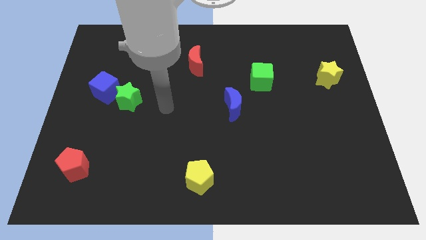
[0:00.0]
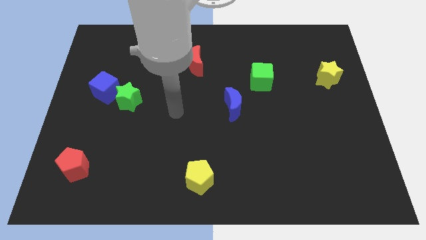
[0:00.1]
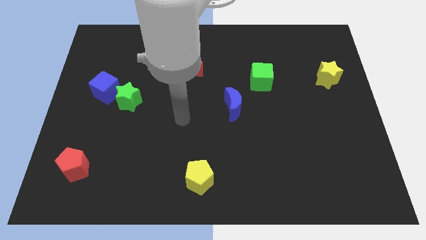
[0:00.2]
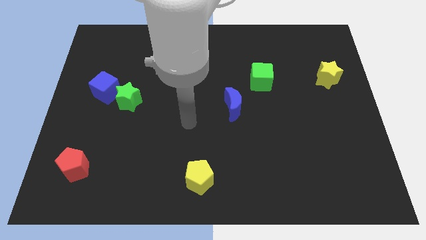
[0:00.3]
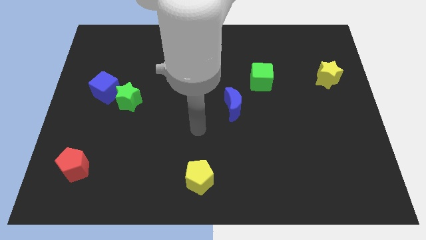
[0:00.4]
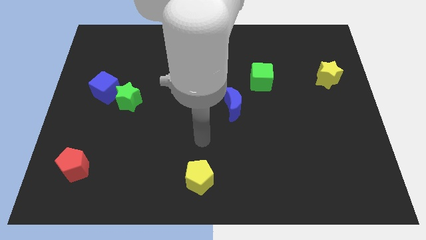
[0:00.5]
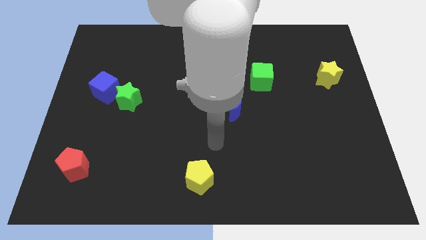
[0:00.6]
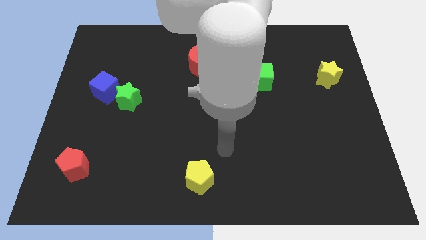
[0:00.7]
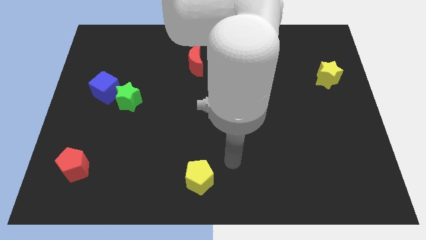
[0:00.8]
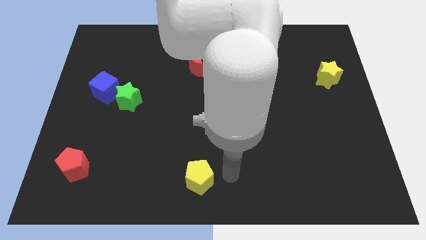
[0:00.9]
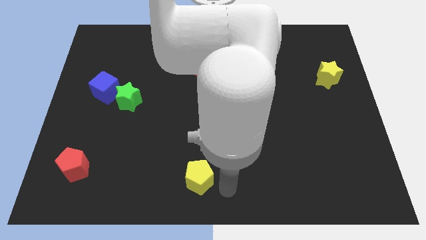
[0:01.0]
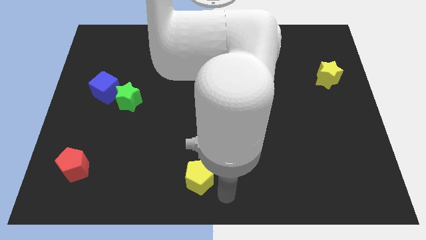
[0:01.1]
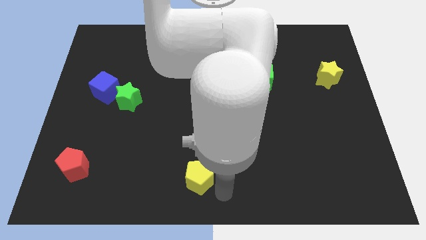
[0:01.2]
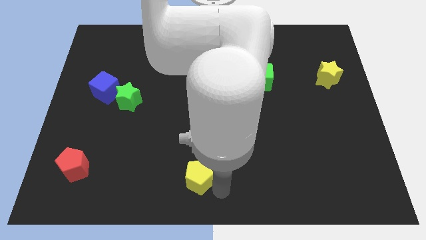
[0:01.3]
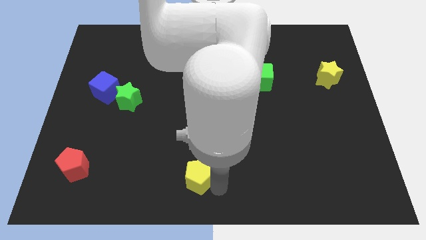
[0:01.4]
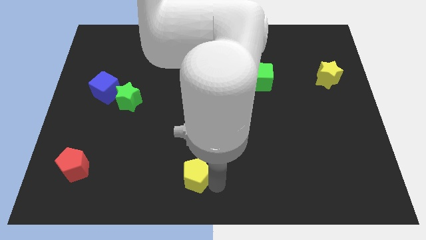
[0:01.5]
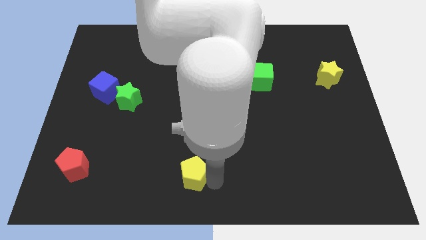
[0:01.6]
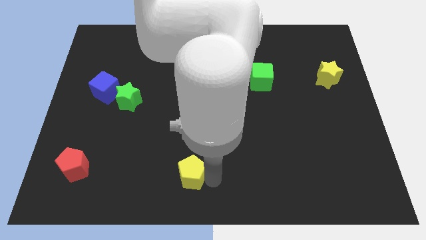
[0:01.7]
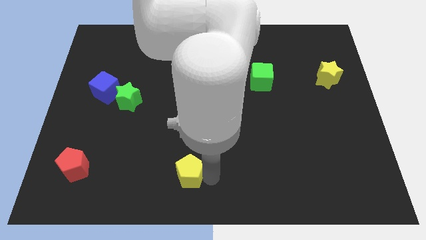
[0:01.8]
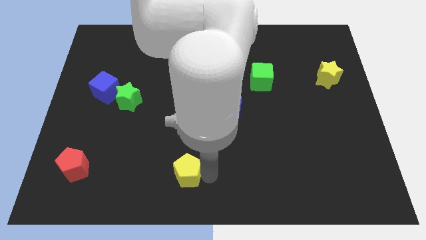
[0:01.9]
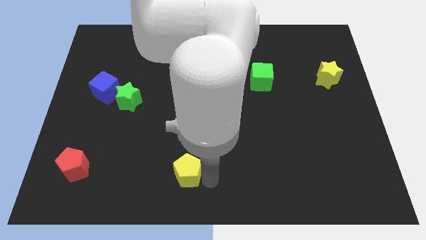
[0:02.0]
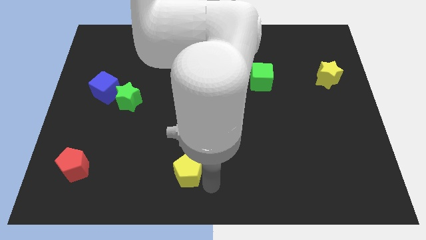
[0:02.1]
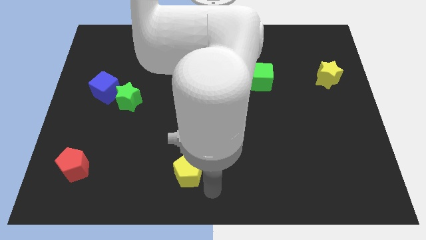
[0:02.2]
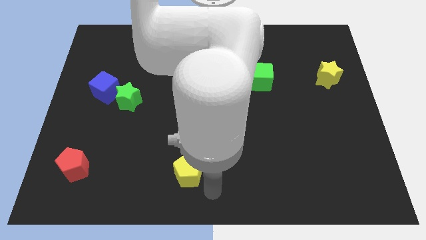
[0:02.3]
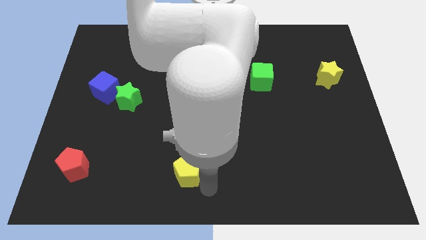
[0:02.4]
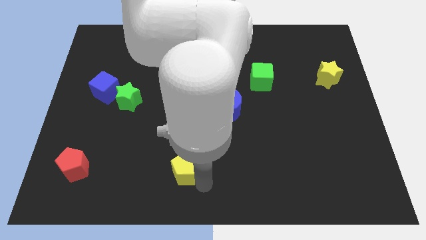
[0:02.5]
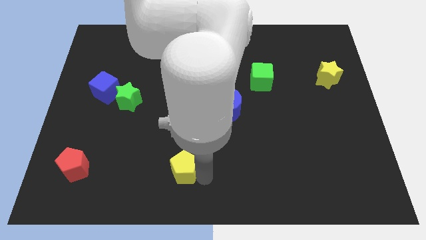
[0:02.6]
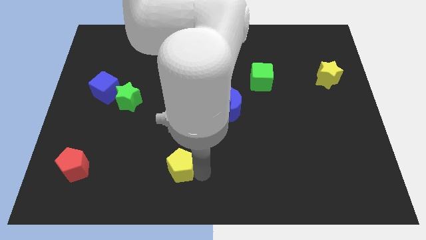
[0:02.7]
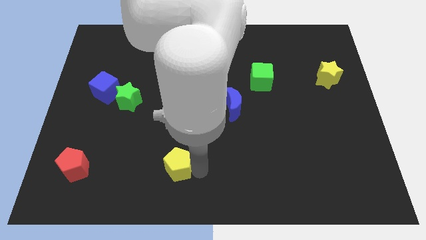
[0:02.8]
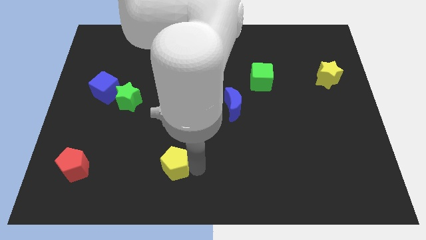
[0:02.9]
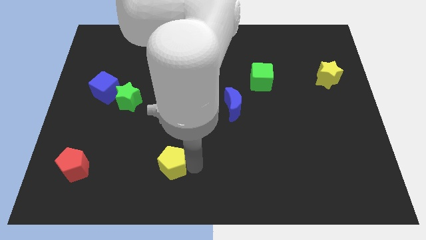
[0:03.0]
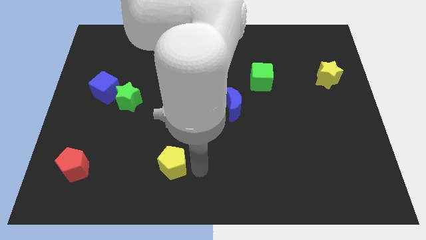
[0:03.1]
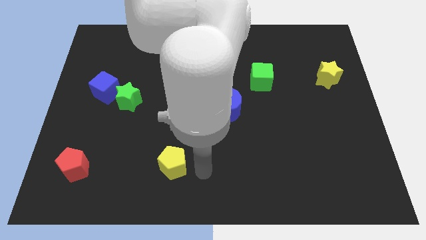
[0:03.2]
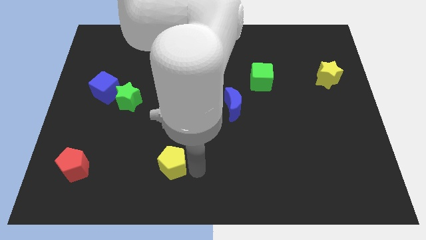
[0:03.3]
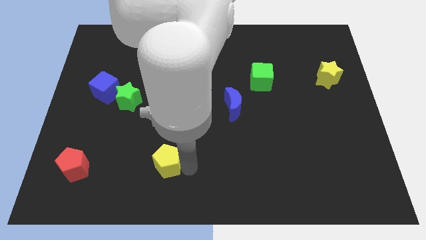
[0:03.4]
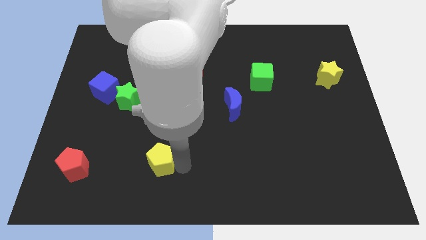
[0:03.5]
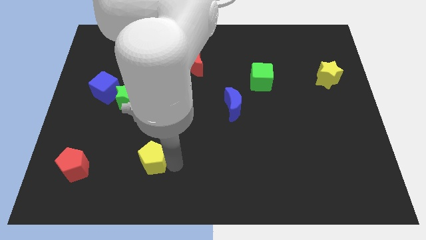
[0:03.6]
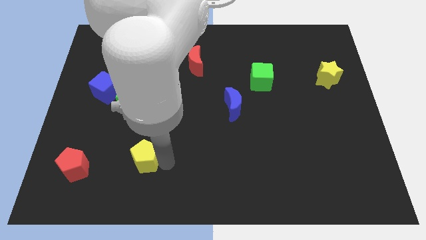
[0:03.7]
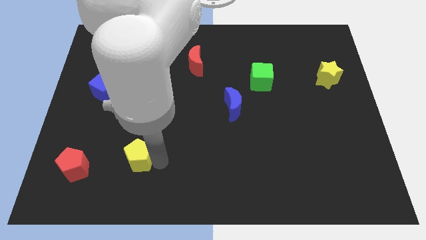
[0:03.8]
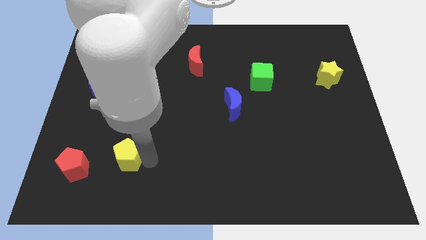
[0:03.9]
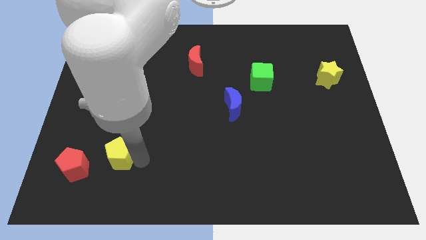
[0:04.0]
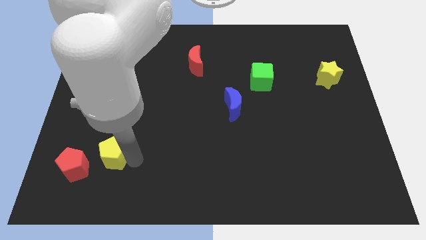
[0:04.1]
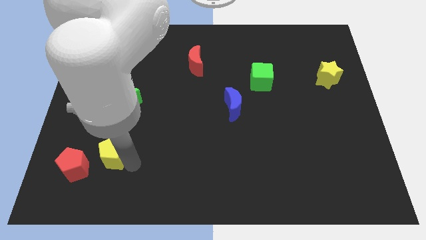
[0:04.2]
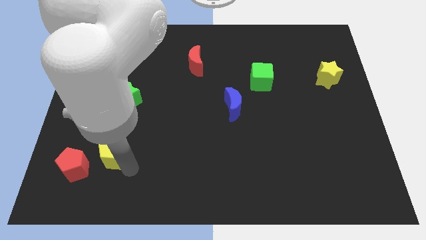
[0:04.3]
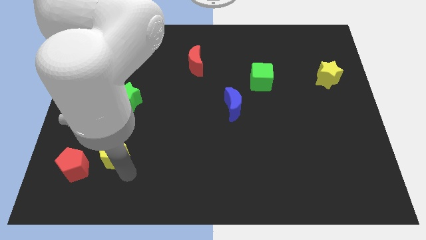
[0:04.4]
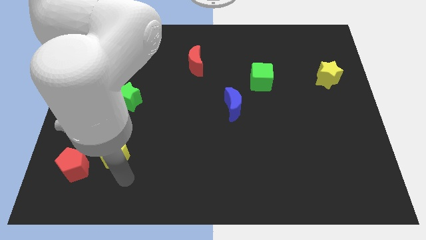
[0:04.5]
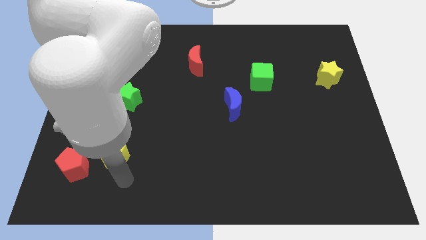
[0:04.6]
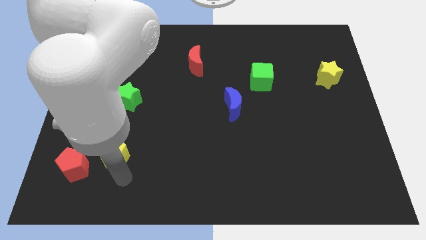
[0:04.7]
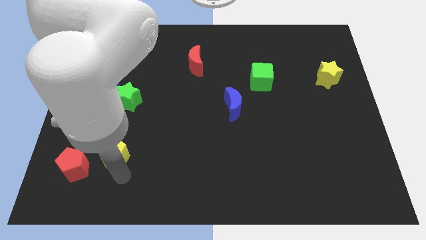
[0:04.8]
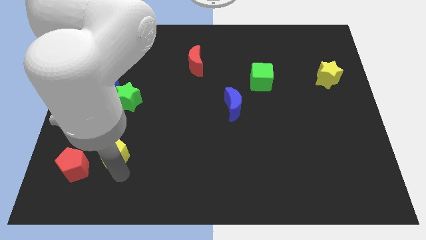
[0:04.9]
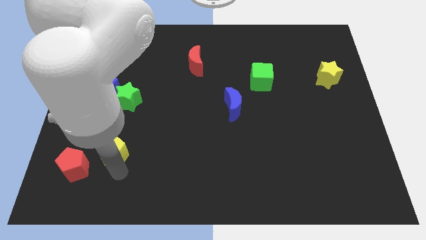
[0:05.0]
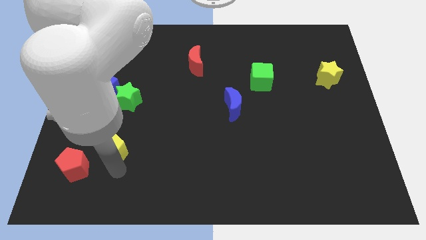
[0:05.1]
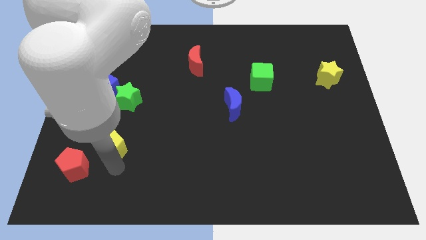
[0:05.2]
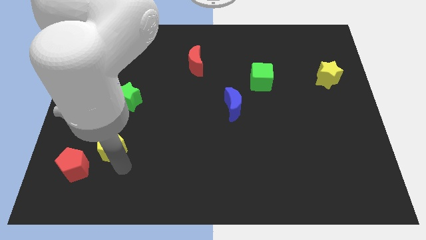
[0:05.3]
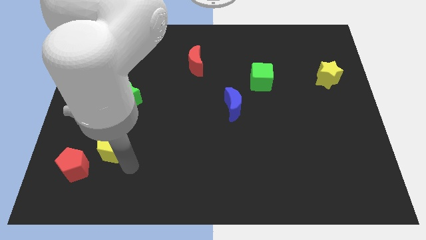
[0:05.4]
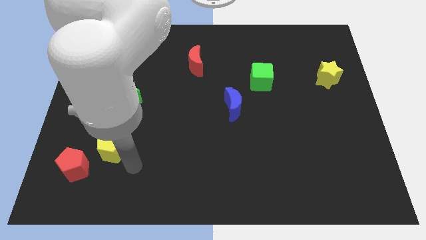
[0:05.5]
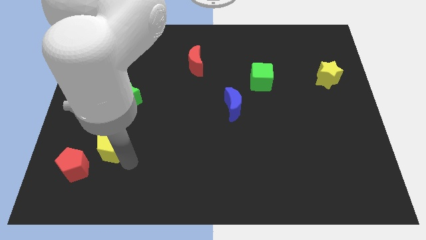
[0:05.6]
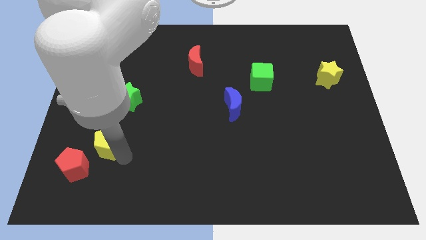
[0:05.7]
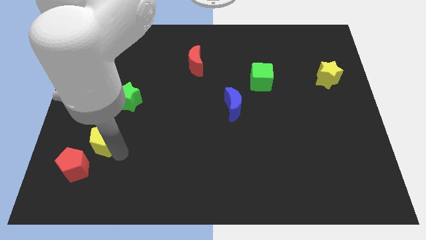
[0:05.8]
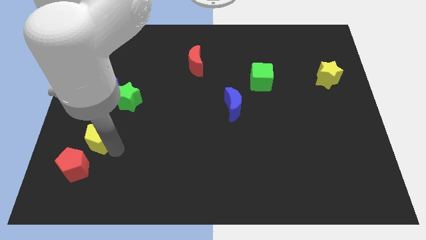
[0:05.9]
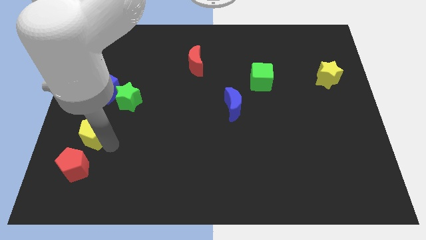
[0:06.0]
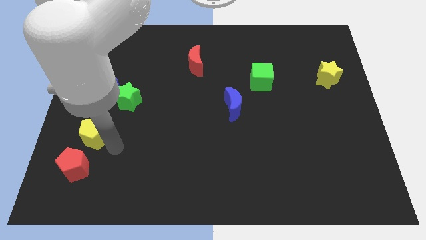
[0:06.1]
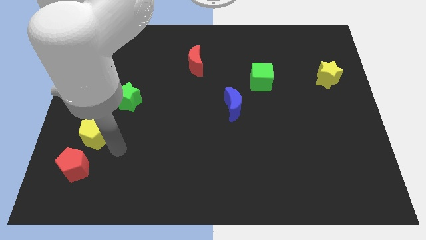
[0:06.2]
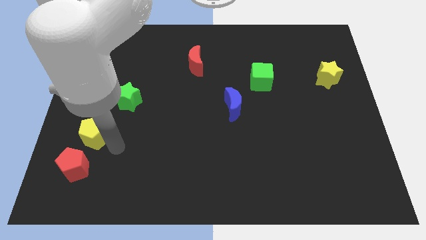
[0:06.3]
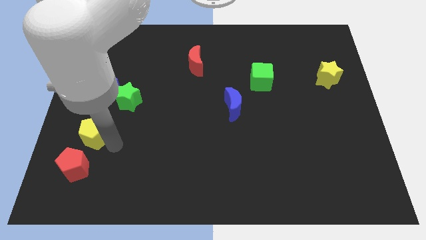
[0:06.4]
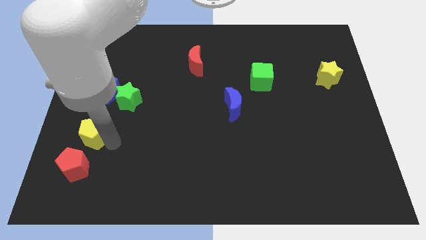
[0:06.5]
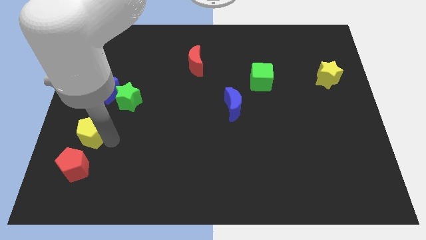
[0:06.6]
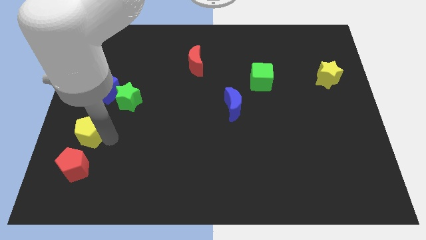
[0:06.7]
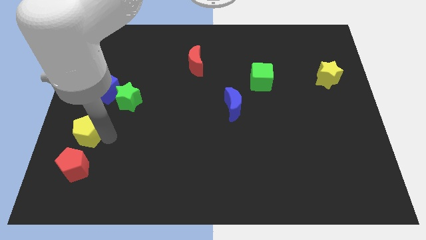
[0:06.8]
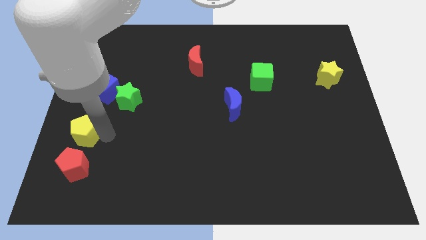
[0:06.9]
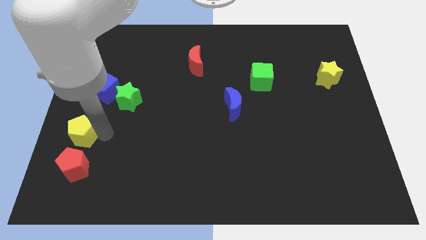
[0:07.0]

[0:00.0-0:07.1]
move the yellow pentagon to the left side of the board
